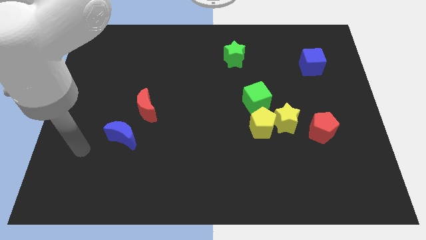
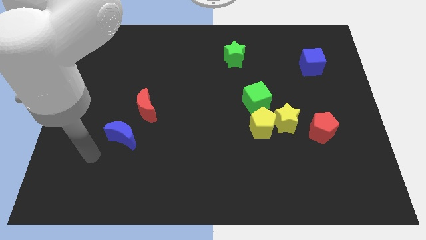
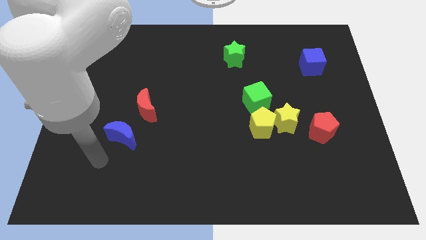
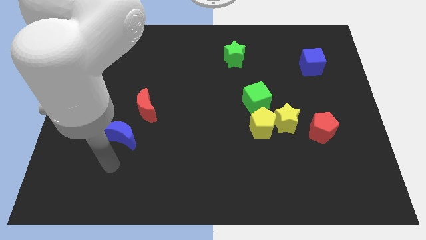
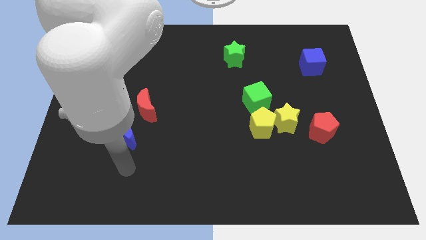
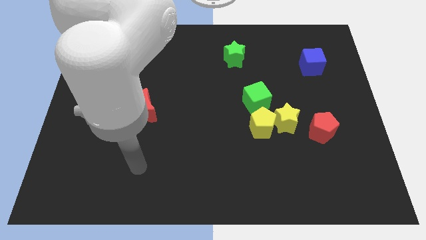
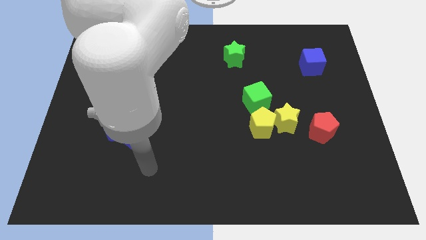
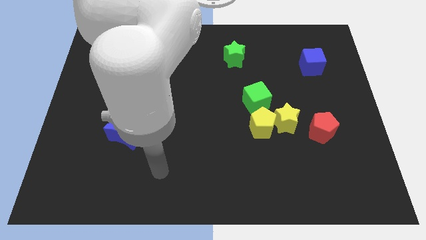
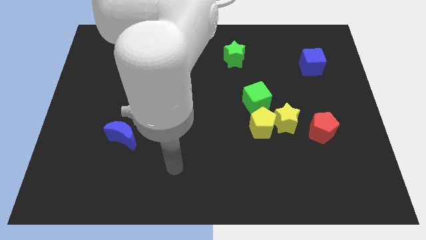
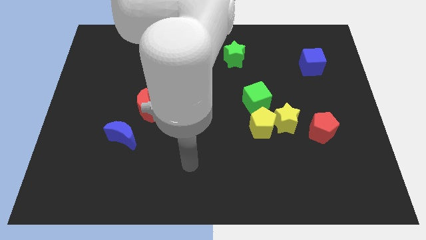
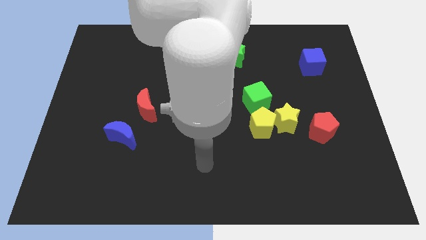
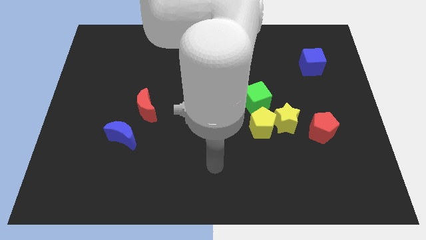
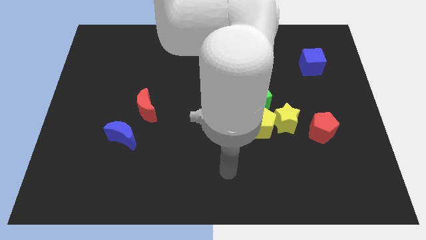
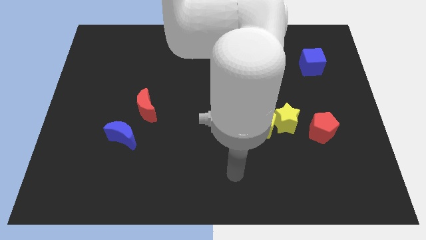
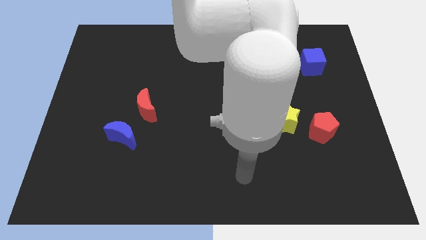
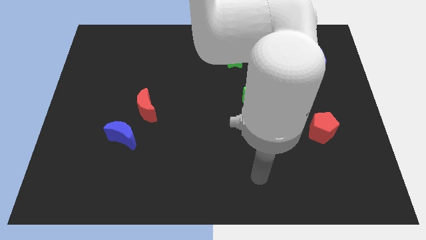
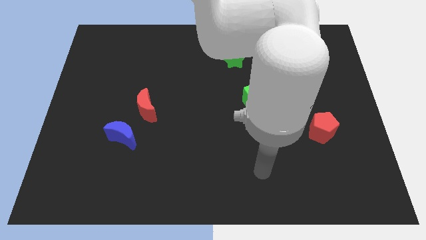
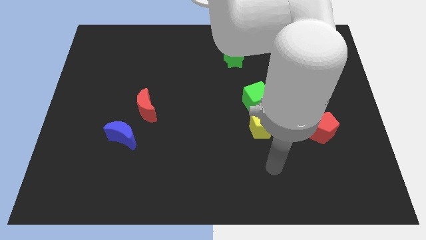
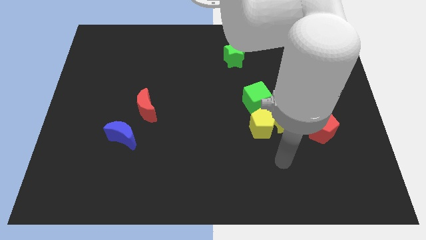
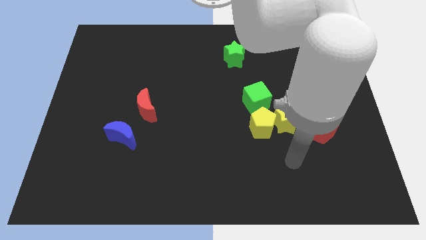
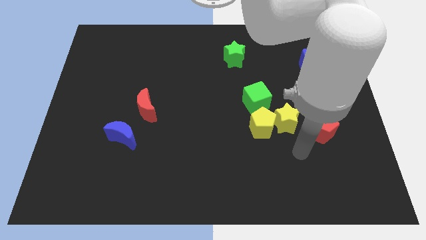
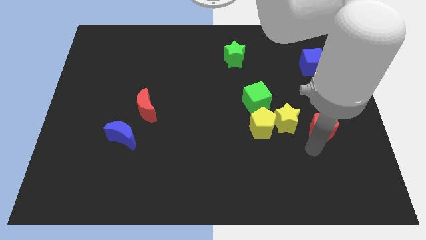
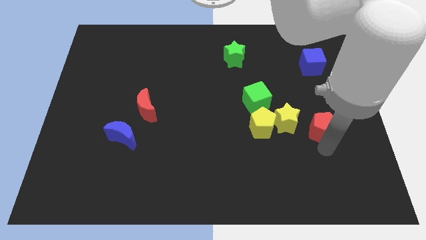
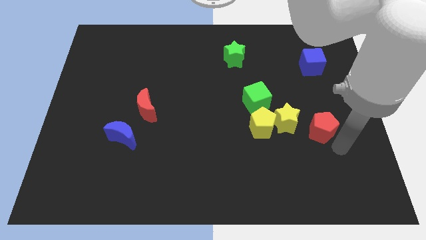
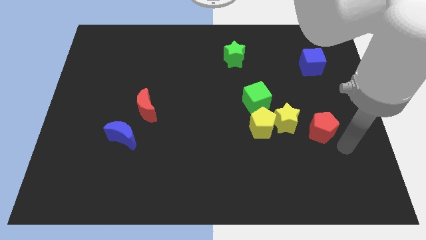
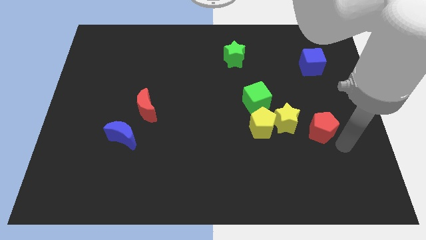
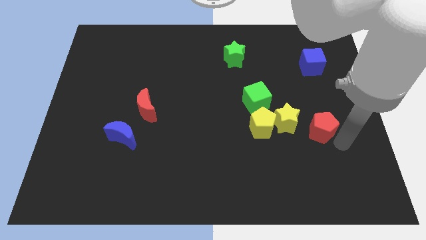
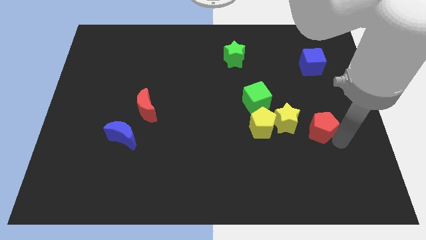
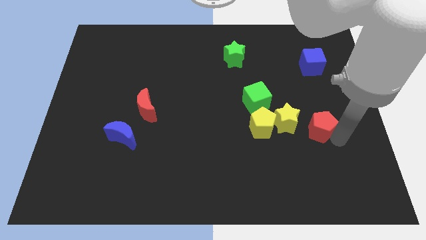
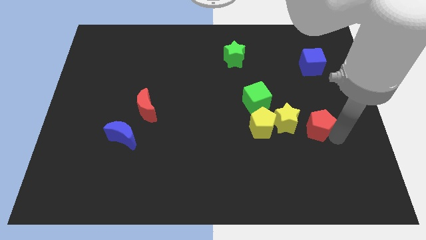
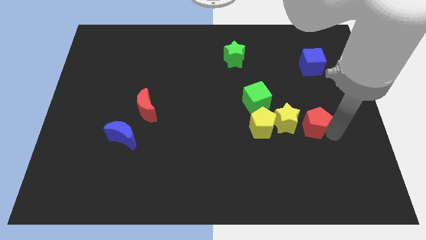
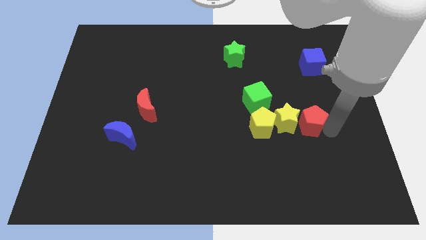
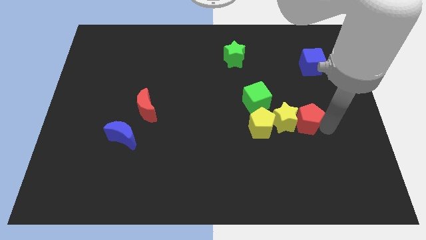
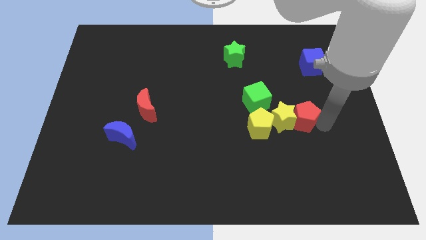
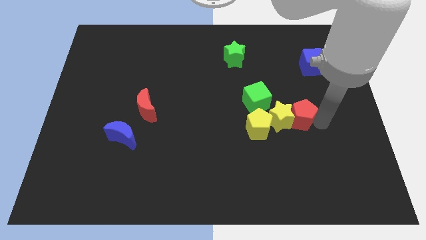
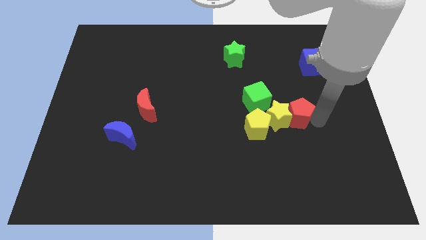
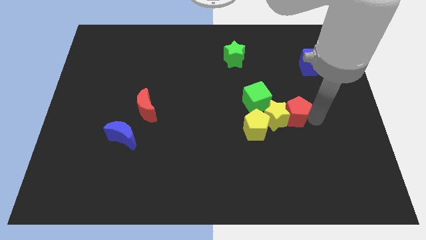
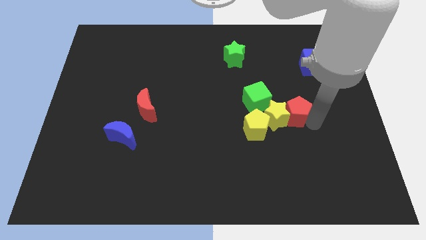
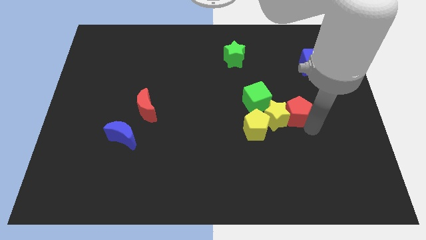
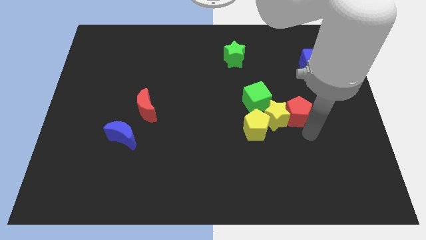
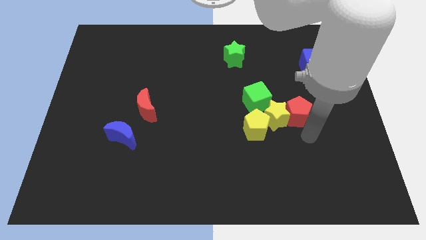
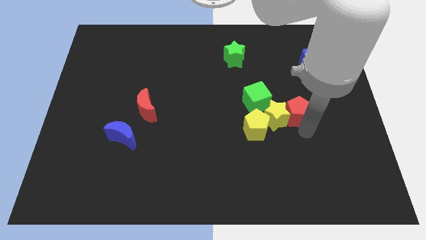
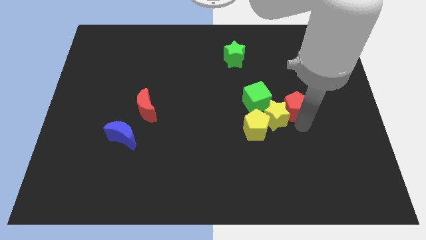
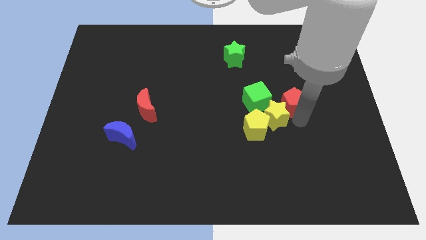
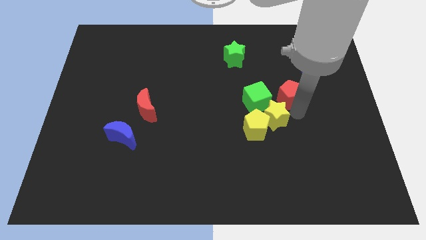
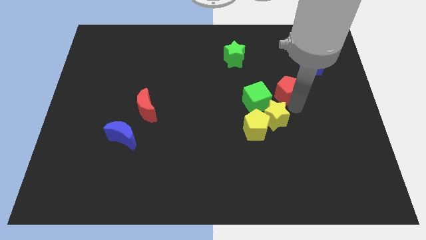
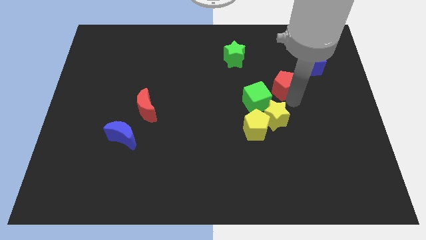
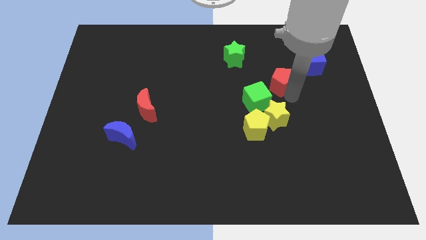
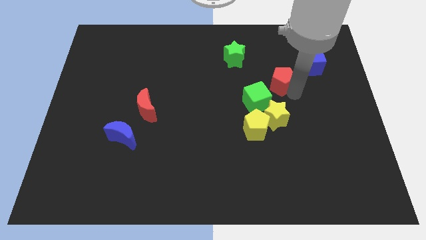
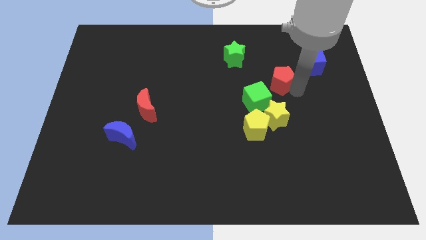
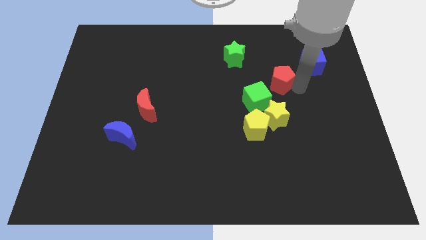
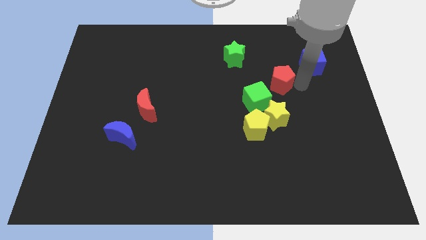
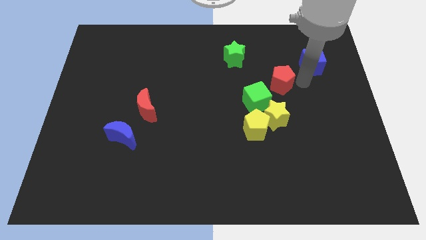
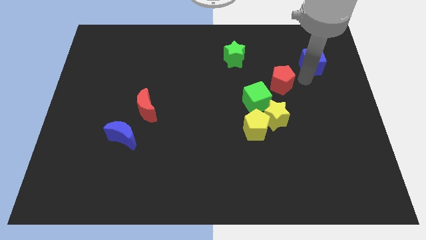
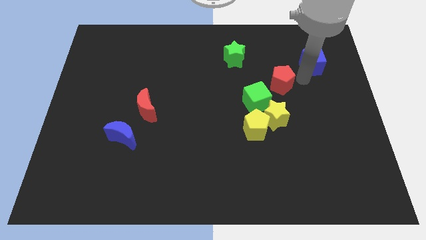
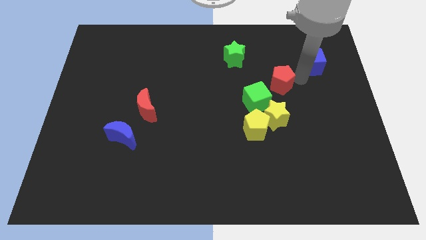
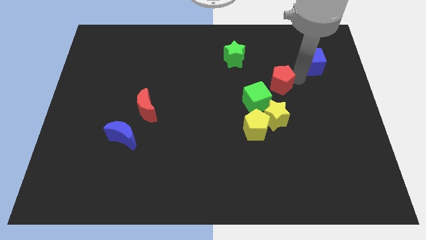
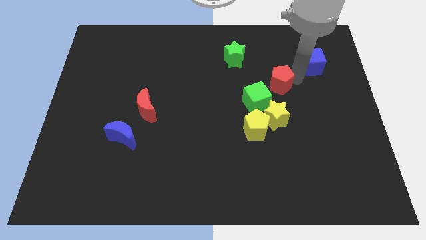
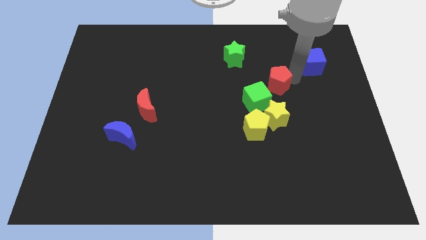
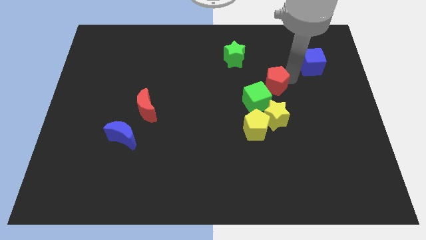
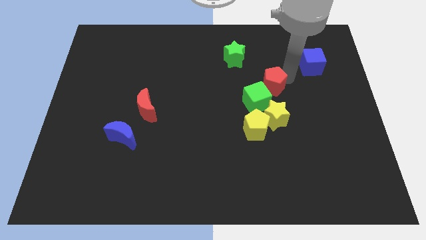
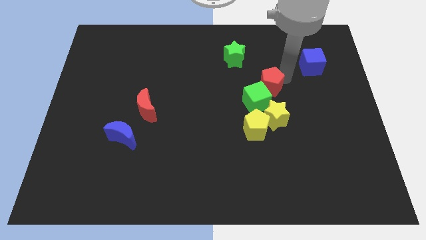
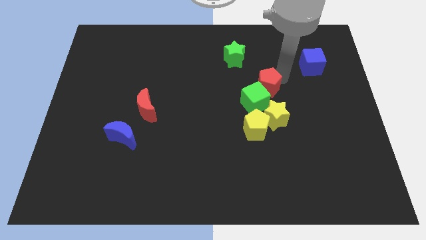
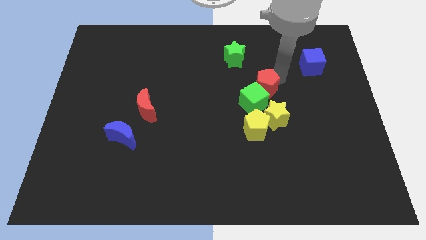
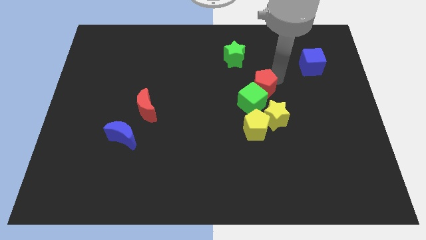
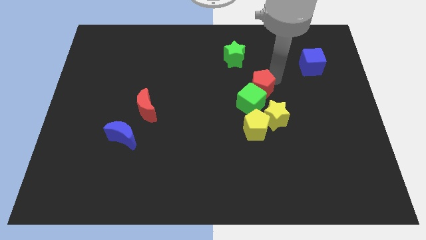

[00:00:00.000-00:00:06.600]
slide the red pentagon to the center of the board
